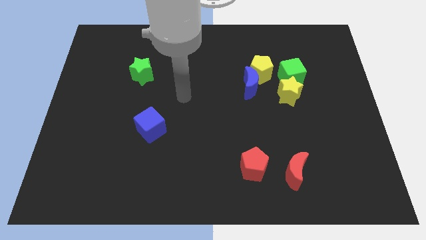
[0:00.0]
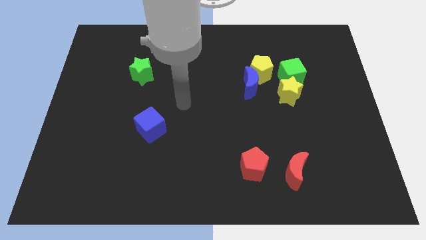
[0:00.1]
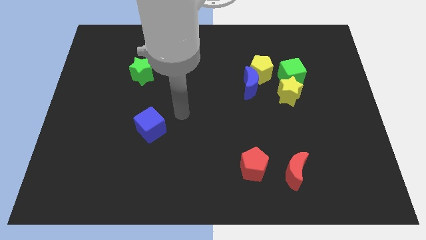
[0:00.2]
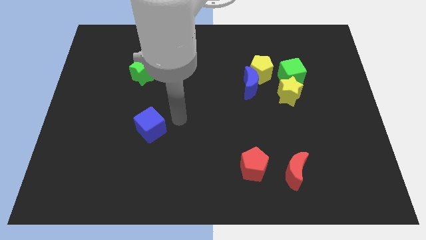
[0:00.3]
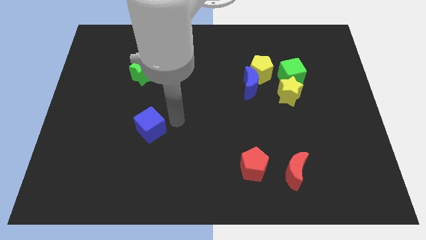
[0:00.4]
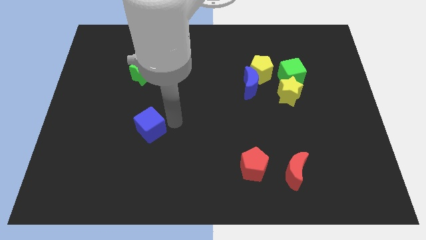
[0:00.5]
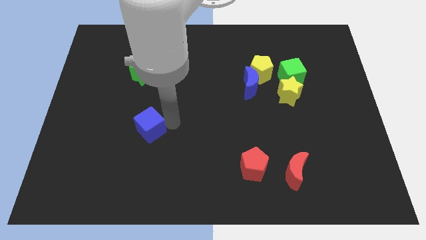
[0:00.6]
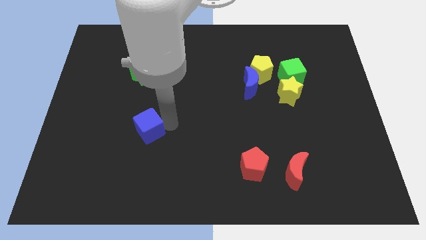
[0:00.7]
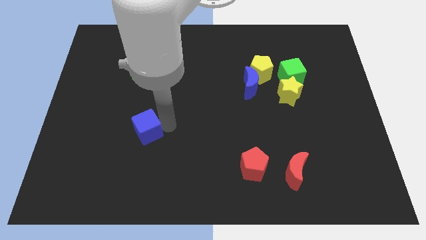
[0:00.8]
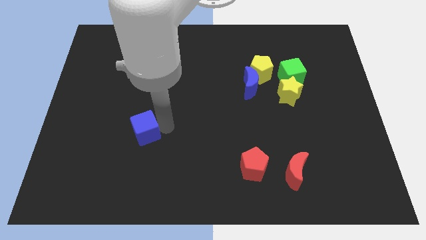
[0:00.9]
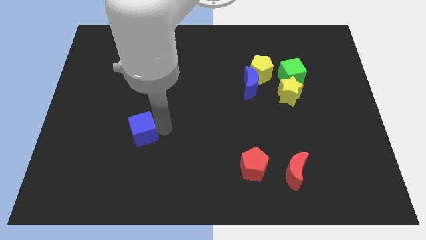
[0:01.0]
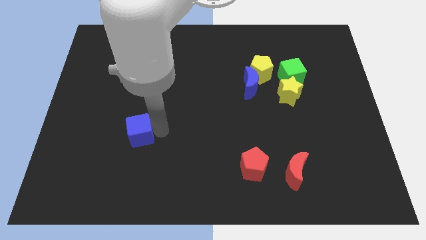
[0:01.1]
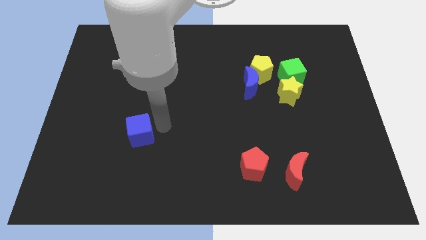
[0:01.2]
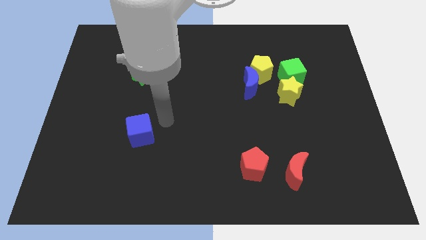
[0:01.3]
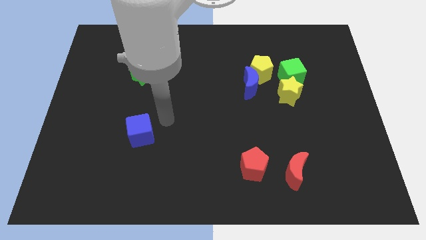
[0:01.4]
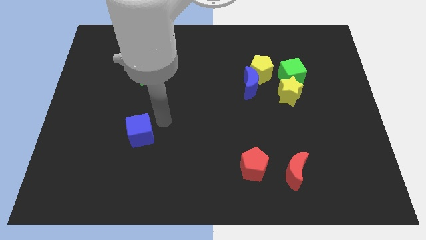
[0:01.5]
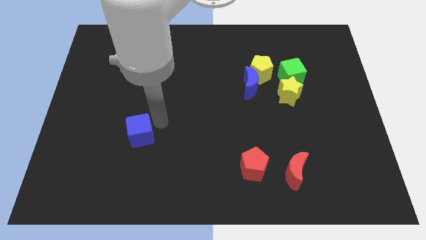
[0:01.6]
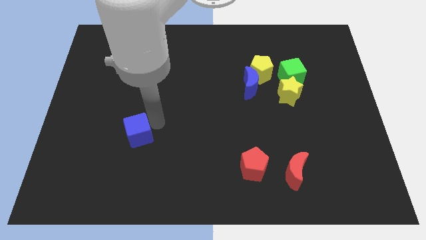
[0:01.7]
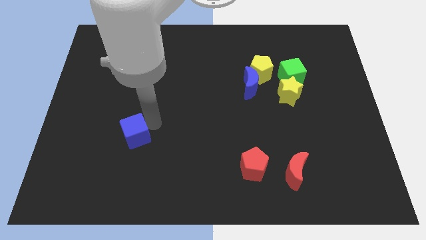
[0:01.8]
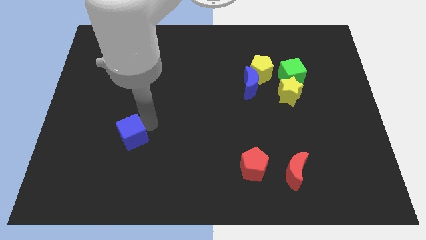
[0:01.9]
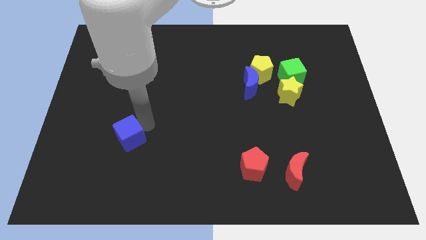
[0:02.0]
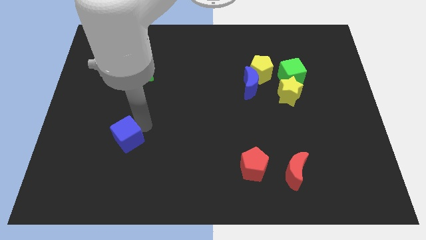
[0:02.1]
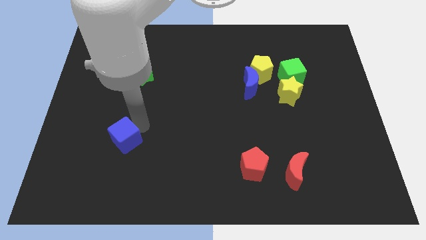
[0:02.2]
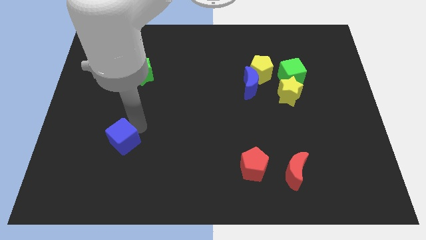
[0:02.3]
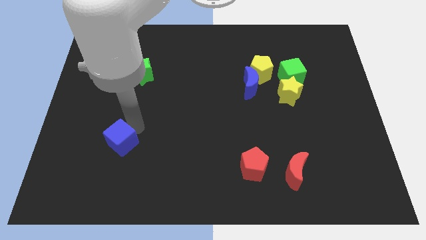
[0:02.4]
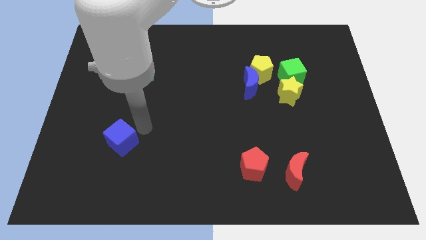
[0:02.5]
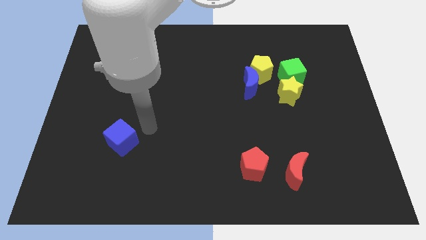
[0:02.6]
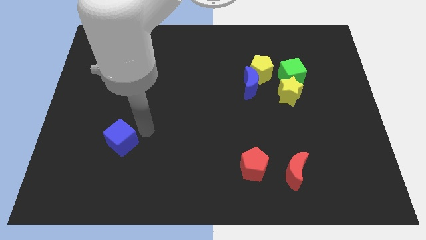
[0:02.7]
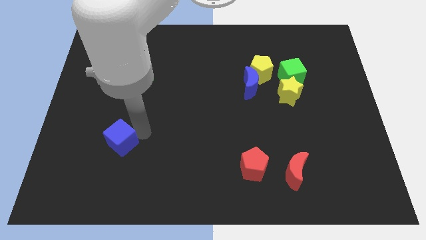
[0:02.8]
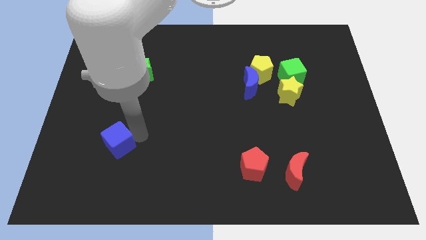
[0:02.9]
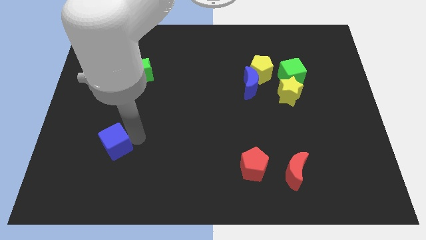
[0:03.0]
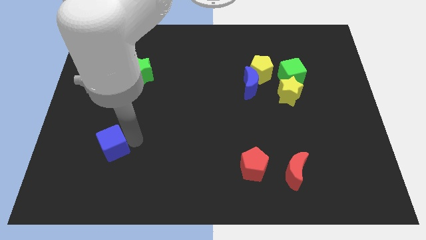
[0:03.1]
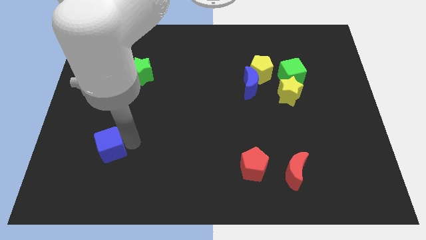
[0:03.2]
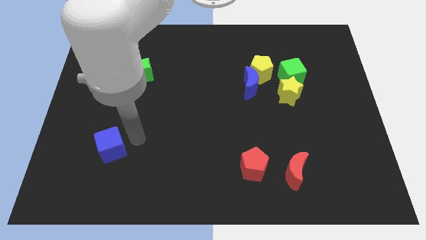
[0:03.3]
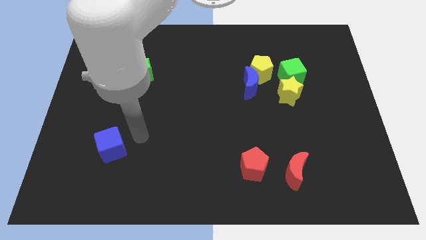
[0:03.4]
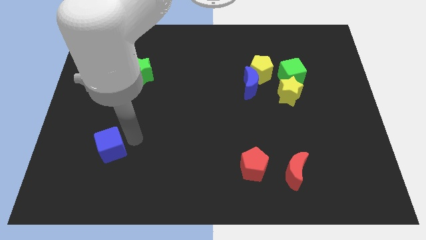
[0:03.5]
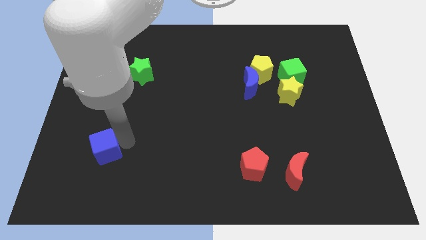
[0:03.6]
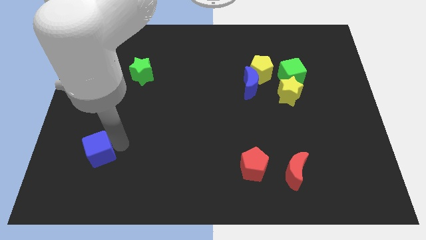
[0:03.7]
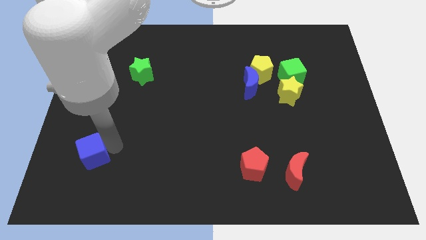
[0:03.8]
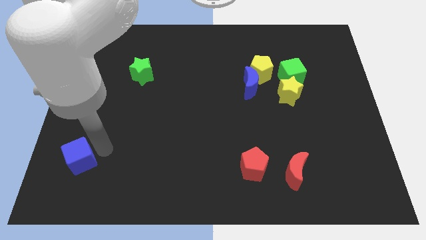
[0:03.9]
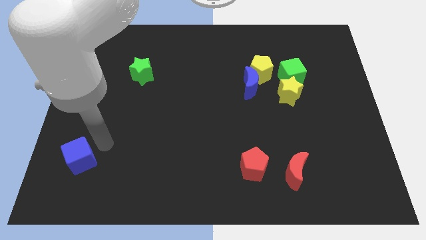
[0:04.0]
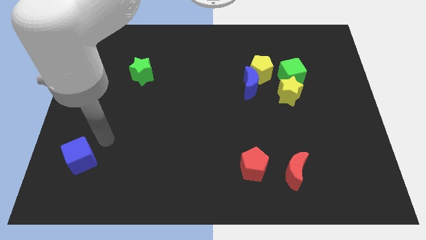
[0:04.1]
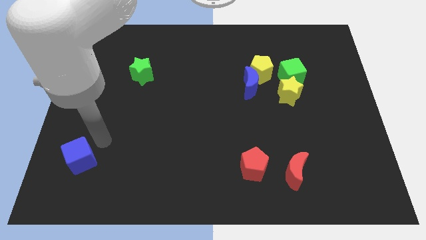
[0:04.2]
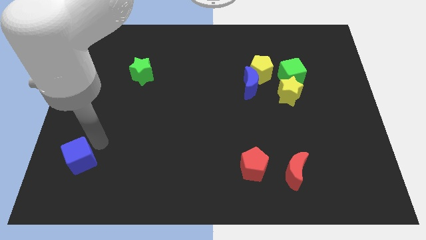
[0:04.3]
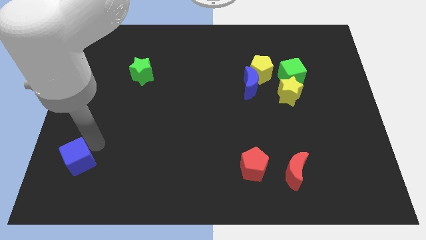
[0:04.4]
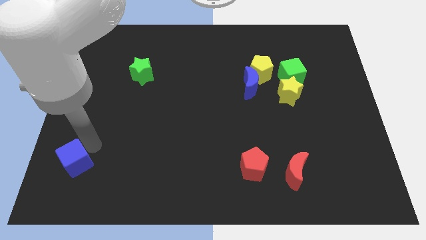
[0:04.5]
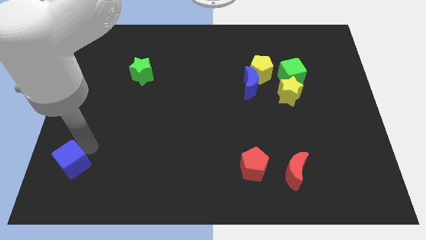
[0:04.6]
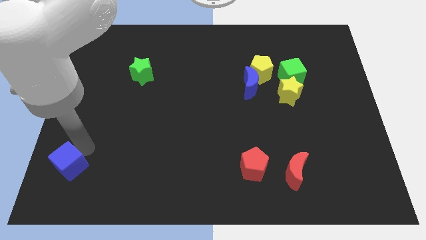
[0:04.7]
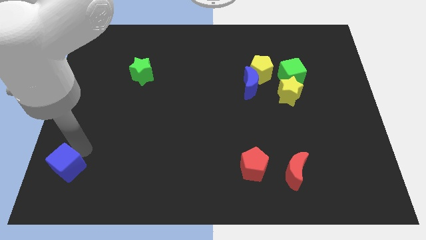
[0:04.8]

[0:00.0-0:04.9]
push the blue cube to the bottom left corner

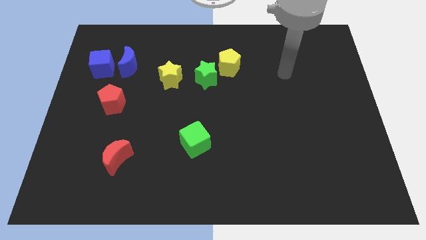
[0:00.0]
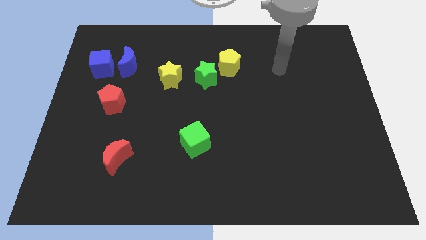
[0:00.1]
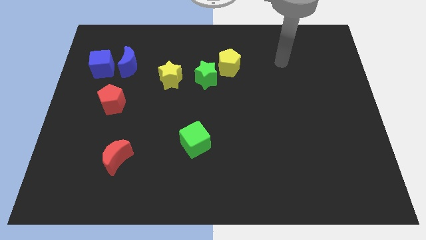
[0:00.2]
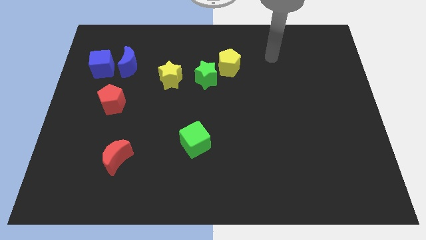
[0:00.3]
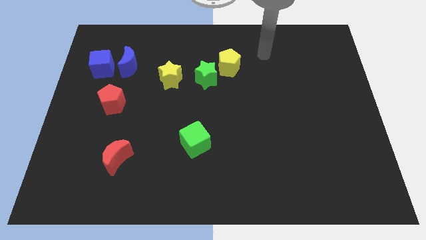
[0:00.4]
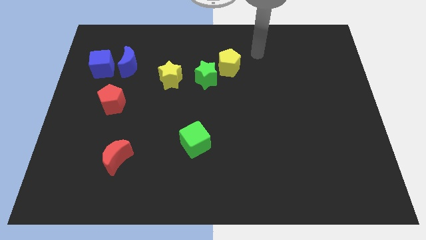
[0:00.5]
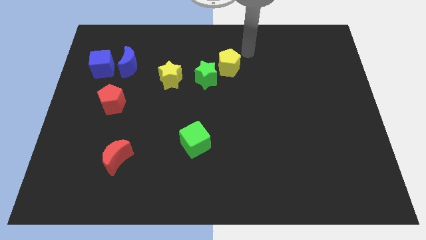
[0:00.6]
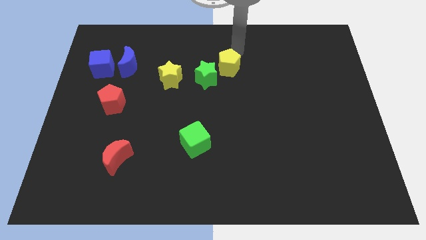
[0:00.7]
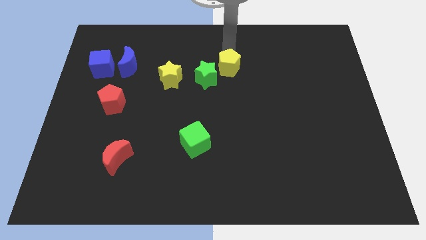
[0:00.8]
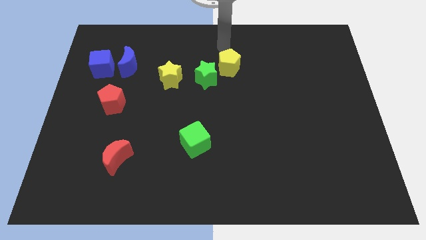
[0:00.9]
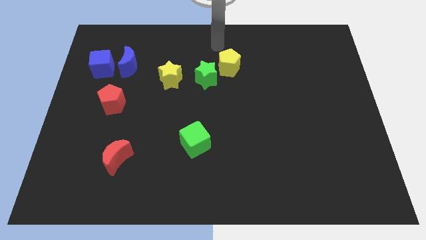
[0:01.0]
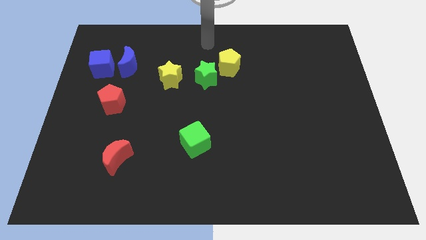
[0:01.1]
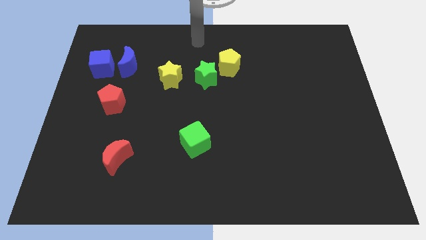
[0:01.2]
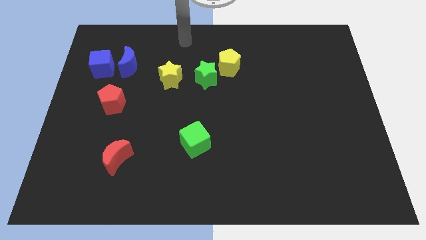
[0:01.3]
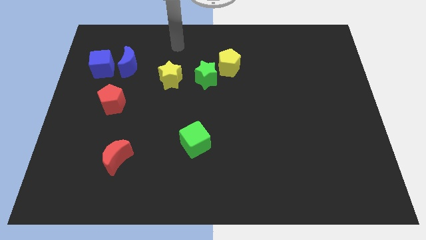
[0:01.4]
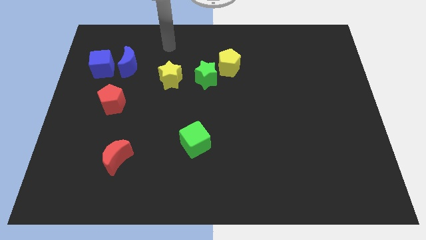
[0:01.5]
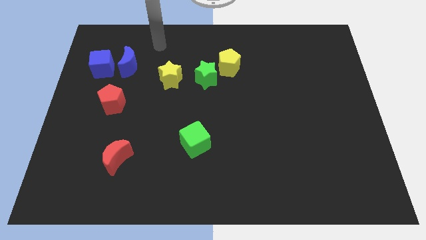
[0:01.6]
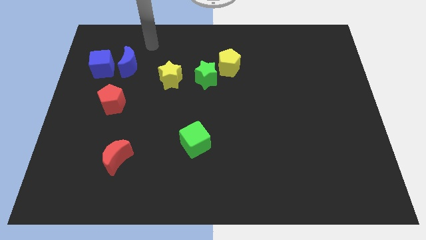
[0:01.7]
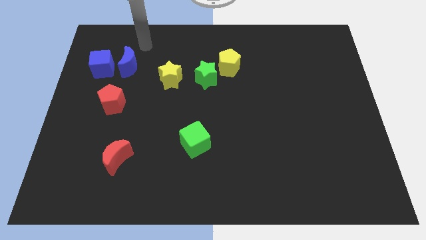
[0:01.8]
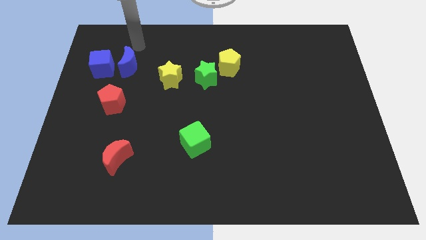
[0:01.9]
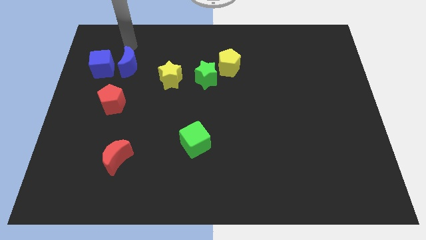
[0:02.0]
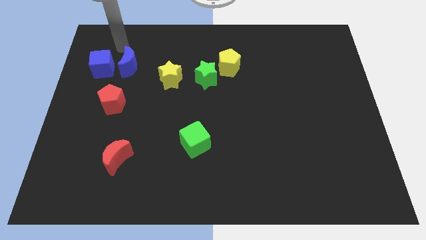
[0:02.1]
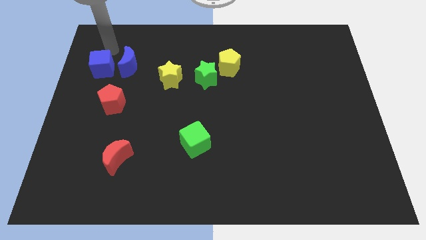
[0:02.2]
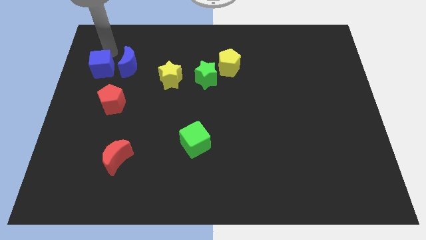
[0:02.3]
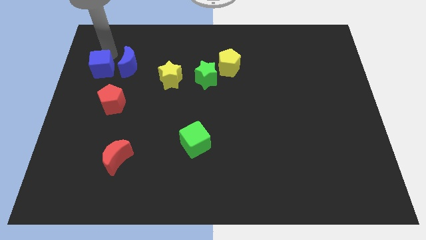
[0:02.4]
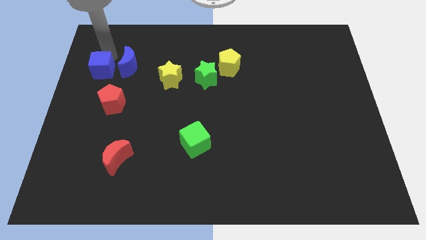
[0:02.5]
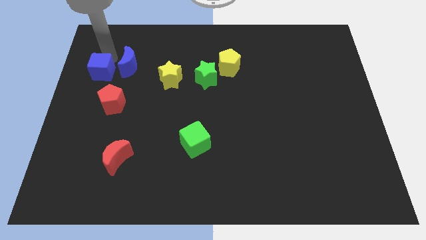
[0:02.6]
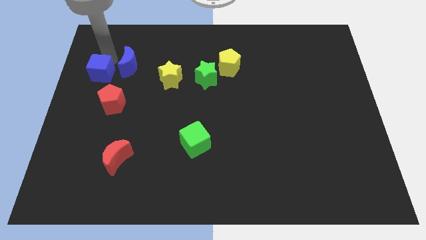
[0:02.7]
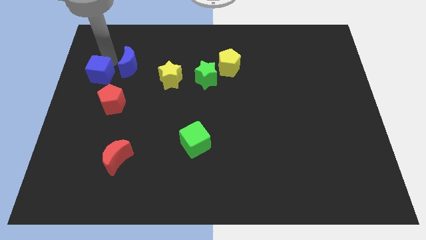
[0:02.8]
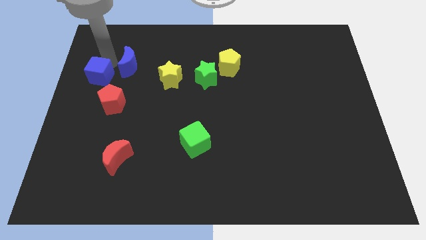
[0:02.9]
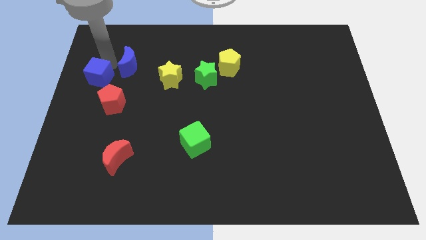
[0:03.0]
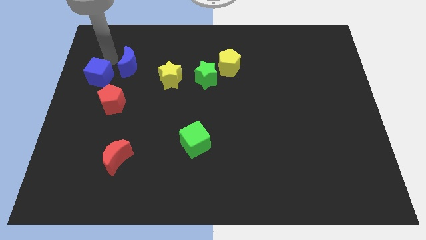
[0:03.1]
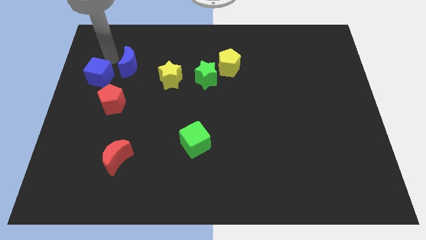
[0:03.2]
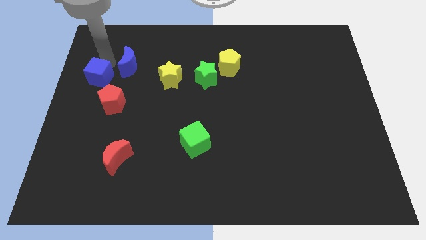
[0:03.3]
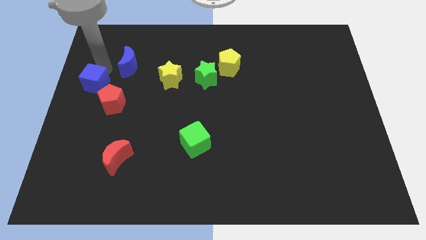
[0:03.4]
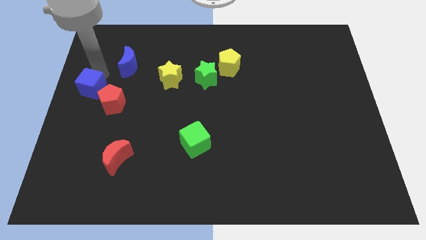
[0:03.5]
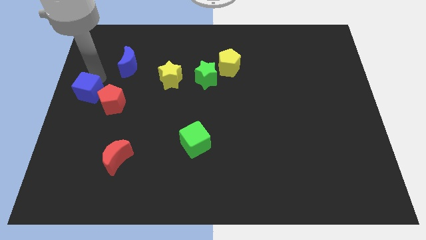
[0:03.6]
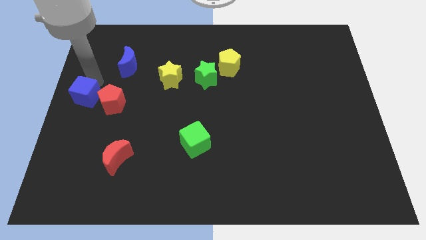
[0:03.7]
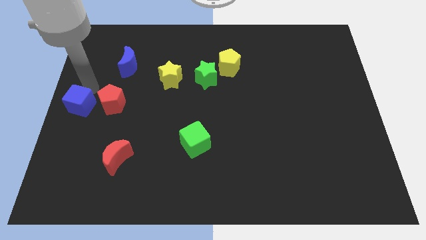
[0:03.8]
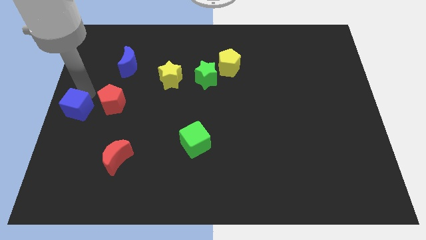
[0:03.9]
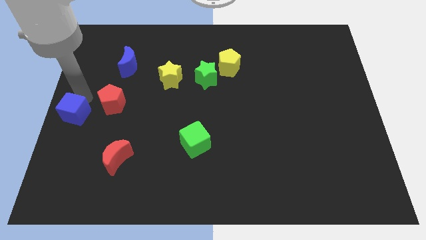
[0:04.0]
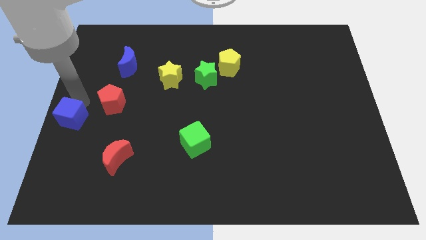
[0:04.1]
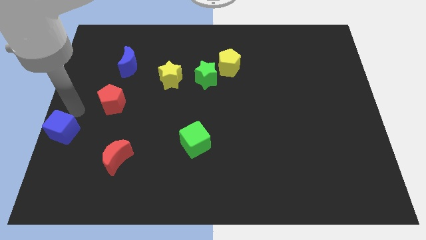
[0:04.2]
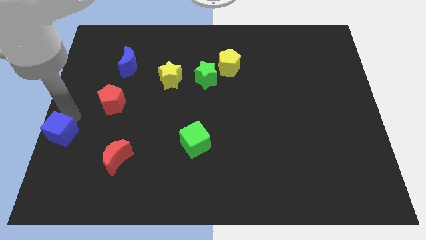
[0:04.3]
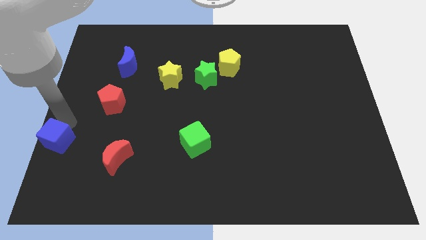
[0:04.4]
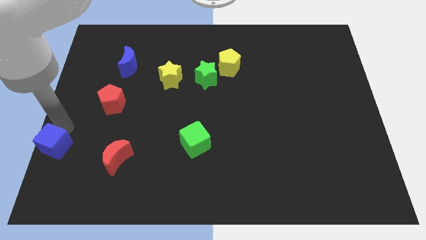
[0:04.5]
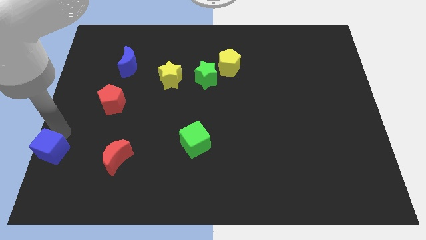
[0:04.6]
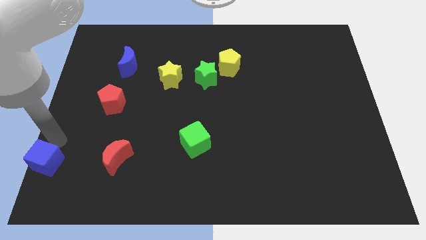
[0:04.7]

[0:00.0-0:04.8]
slide the blue cube to the bottom left of the board
